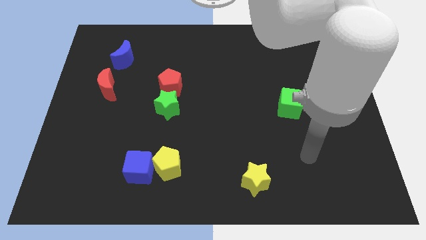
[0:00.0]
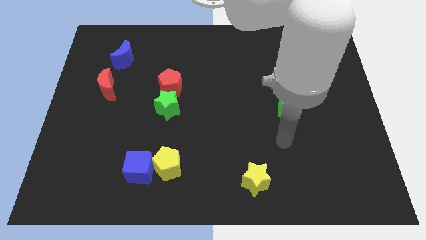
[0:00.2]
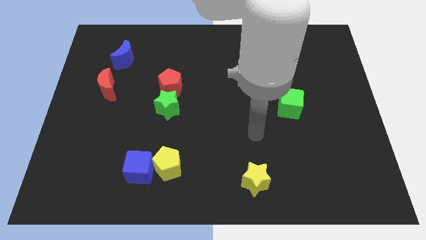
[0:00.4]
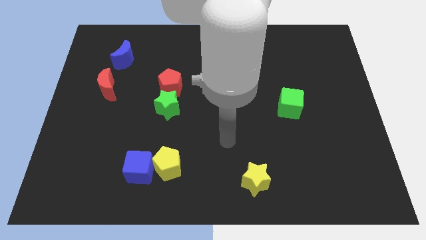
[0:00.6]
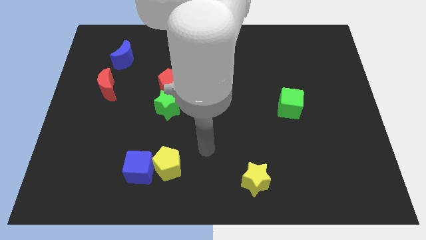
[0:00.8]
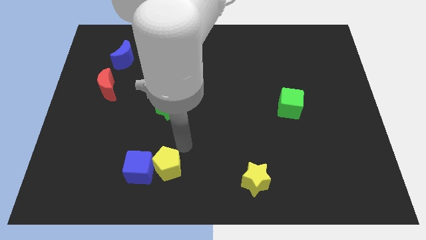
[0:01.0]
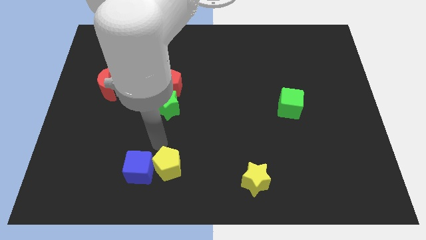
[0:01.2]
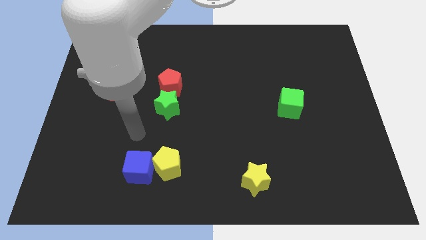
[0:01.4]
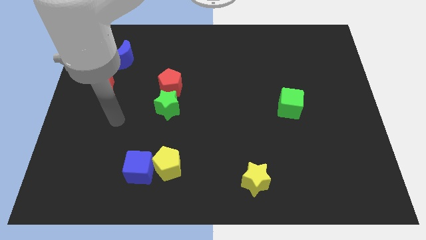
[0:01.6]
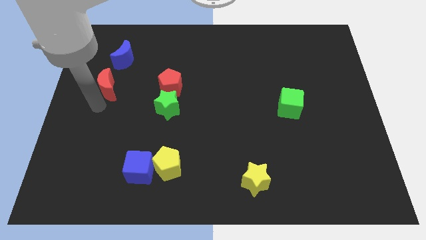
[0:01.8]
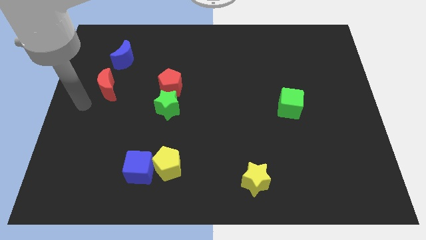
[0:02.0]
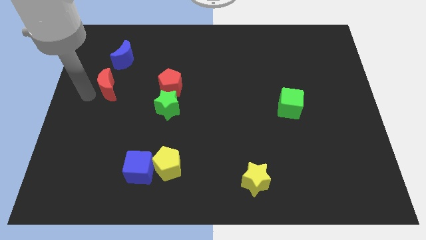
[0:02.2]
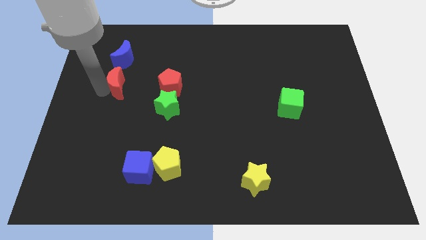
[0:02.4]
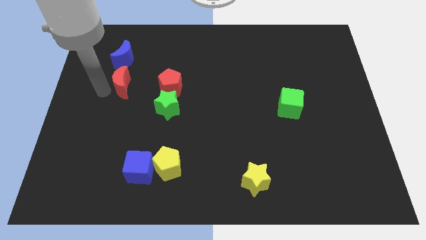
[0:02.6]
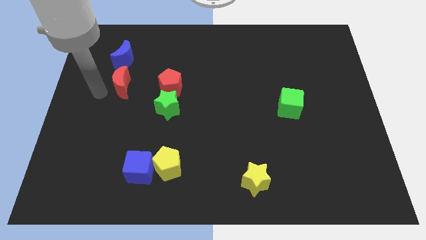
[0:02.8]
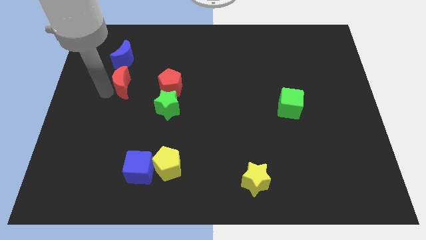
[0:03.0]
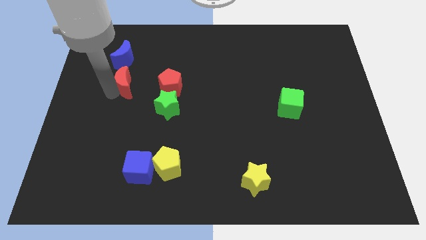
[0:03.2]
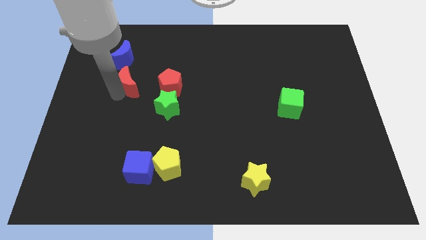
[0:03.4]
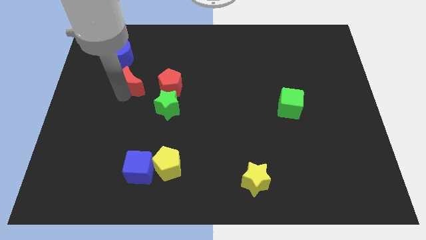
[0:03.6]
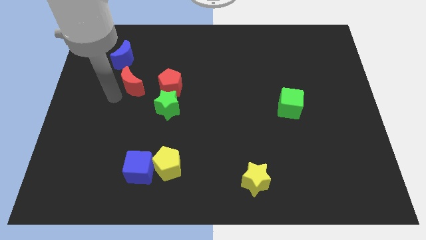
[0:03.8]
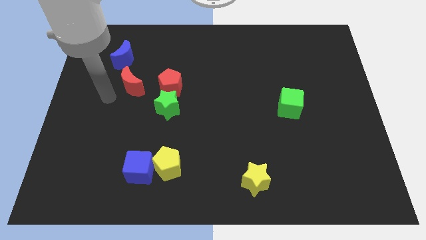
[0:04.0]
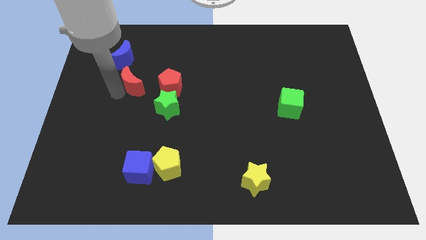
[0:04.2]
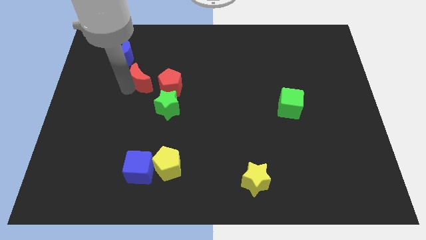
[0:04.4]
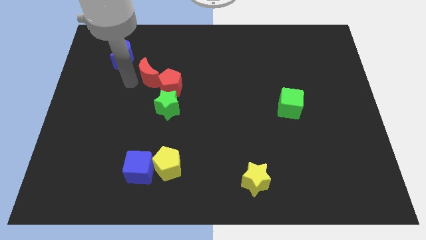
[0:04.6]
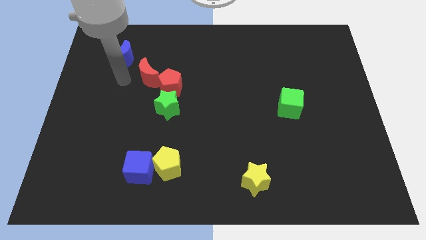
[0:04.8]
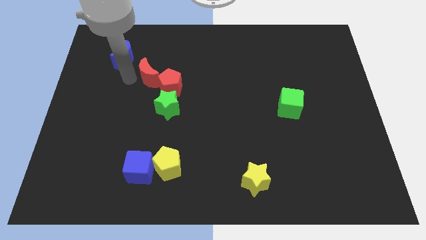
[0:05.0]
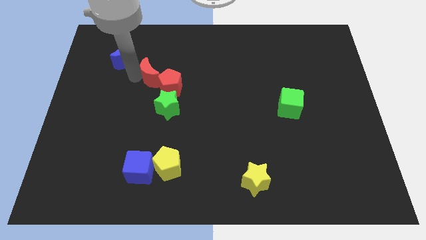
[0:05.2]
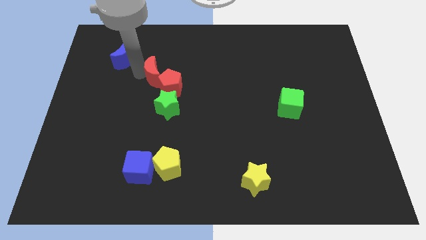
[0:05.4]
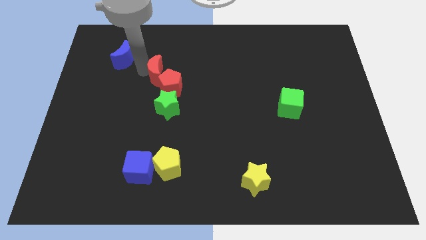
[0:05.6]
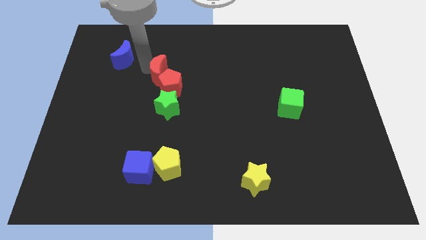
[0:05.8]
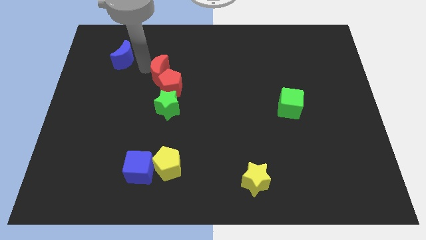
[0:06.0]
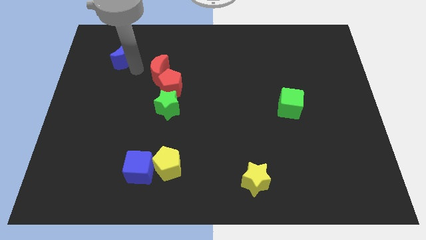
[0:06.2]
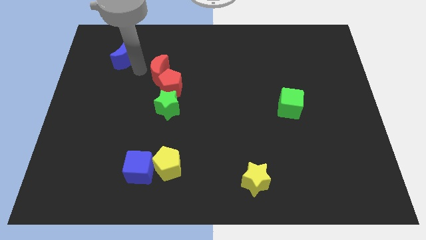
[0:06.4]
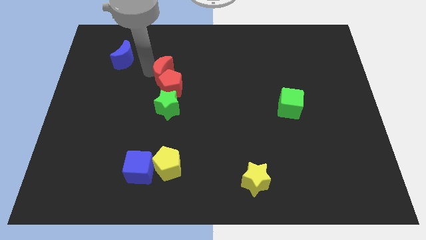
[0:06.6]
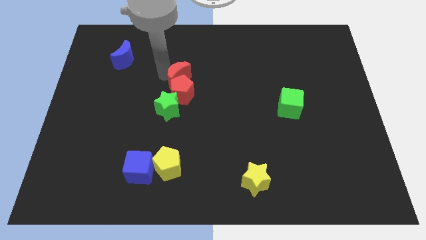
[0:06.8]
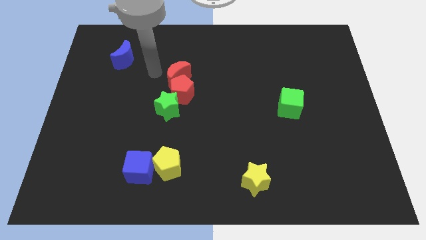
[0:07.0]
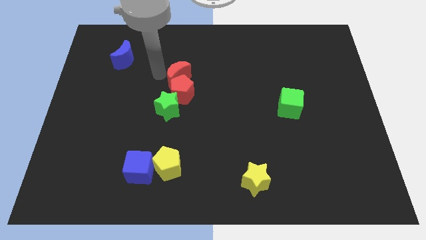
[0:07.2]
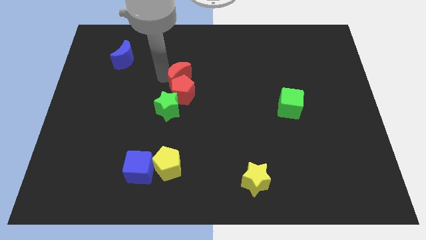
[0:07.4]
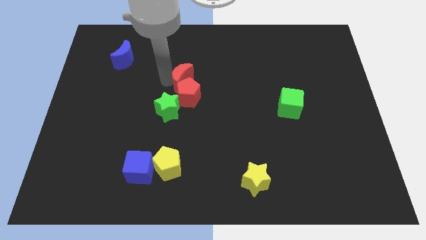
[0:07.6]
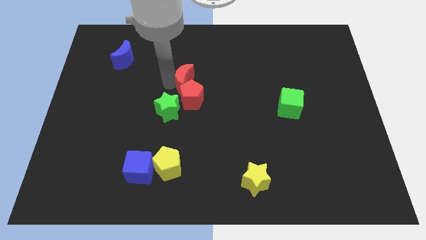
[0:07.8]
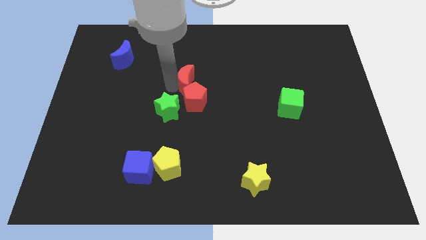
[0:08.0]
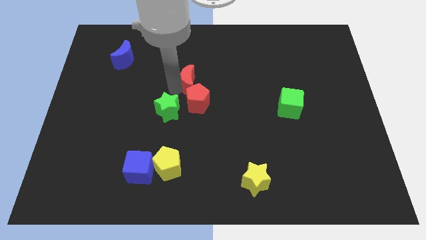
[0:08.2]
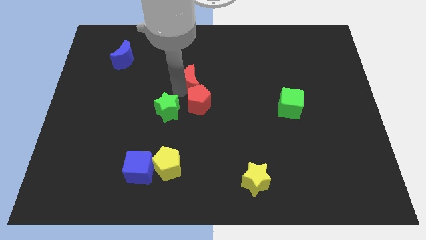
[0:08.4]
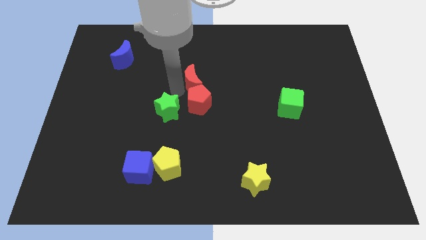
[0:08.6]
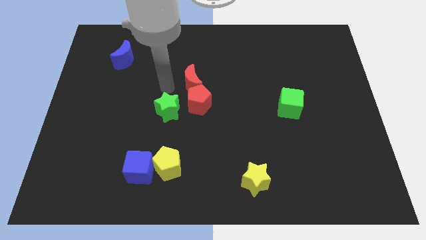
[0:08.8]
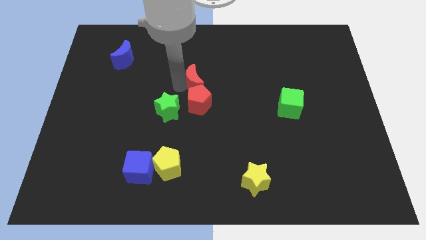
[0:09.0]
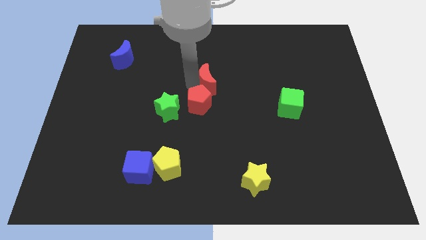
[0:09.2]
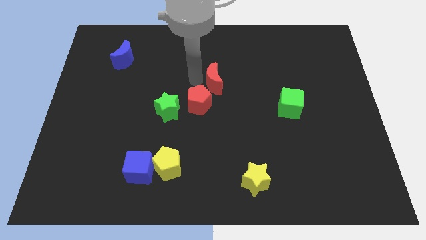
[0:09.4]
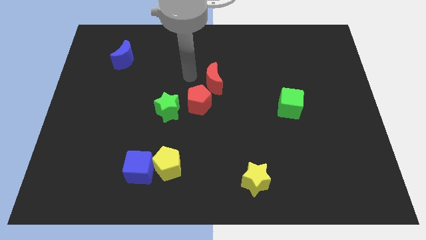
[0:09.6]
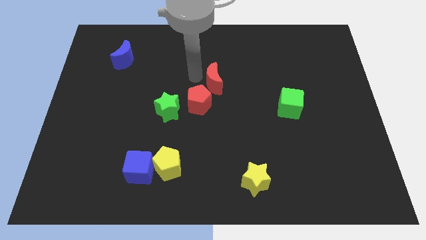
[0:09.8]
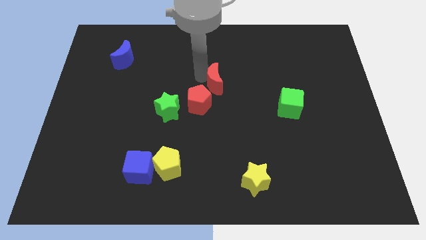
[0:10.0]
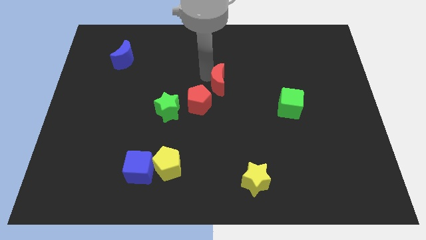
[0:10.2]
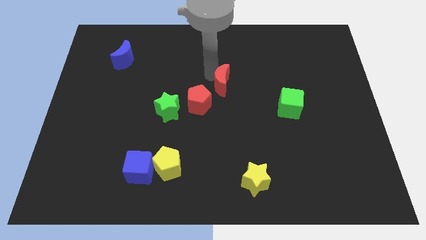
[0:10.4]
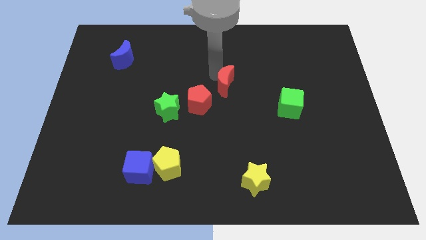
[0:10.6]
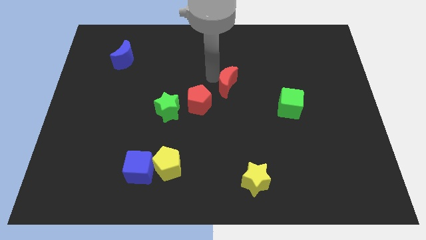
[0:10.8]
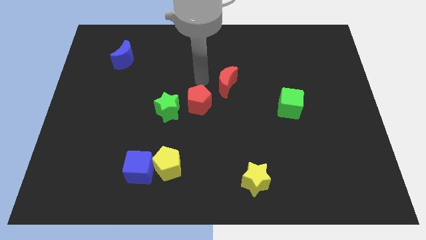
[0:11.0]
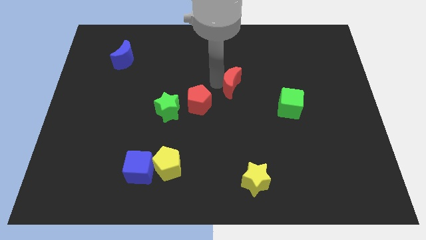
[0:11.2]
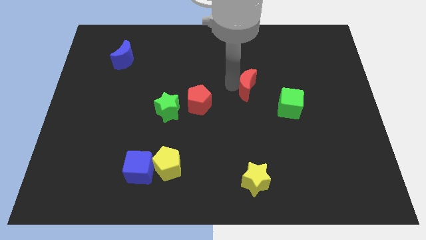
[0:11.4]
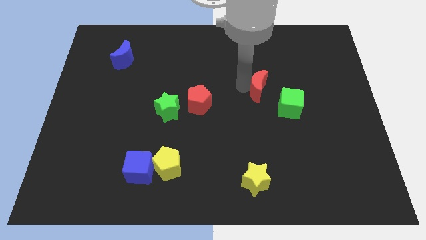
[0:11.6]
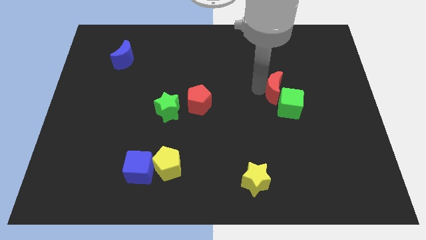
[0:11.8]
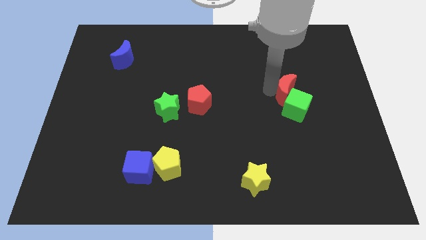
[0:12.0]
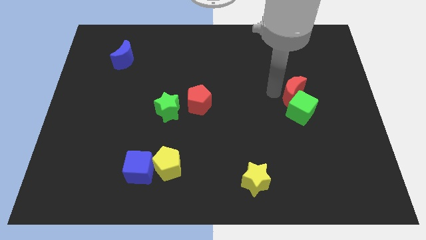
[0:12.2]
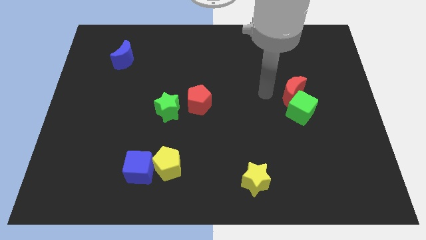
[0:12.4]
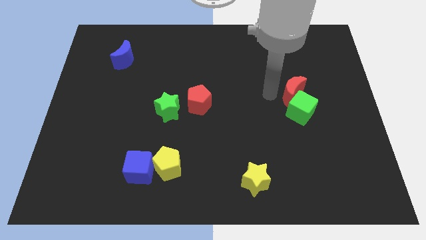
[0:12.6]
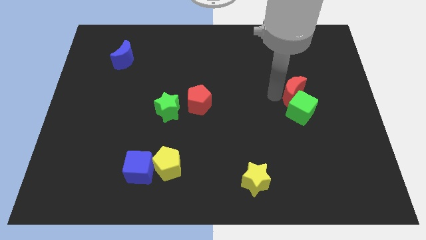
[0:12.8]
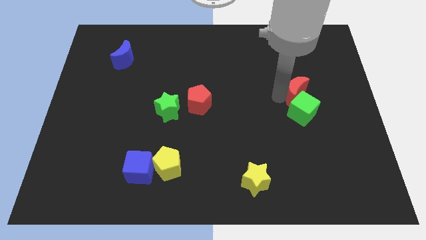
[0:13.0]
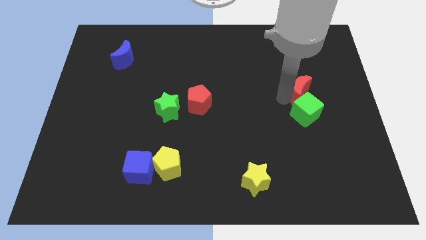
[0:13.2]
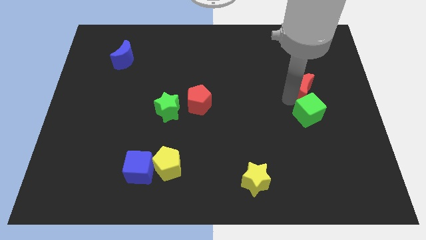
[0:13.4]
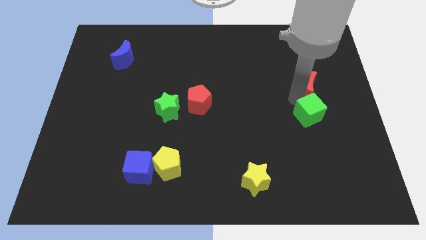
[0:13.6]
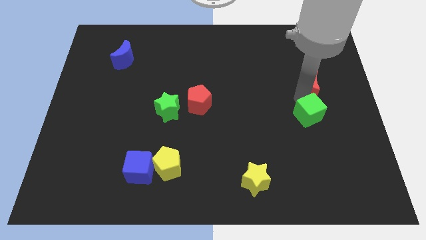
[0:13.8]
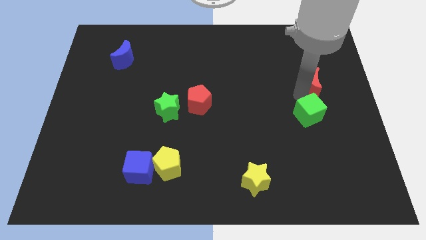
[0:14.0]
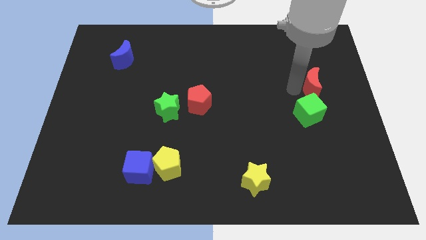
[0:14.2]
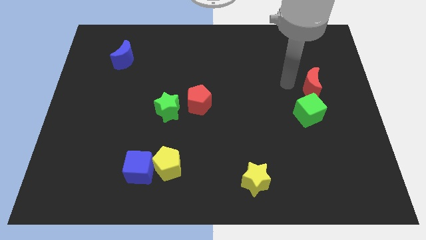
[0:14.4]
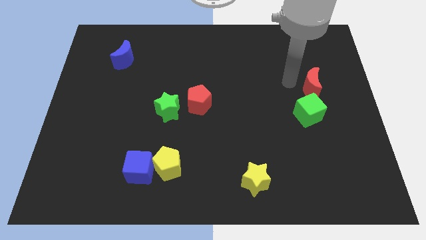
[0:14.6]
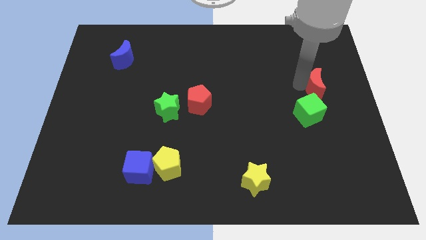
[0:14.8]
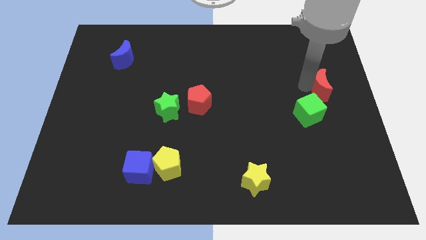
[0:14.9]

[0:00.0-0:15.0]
put the red moon to the right side of the board
